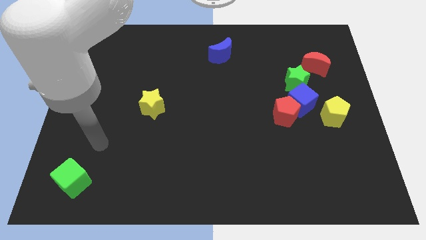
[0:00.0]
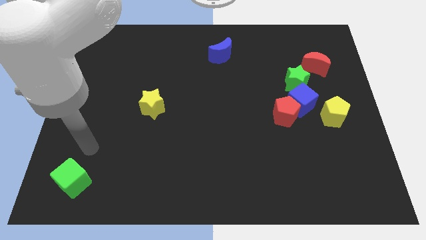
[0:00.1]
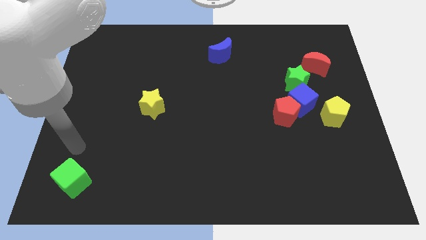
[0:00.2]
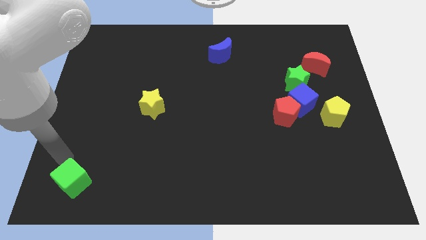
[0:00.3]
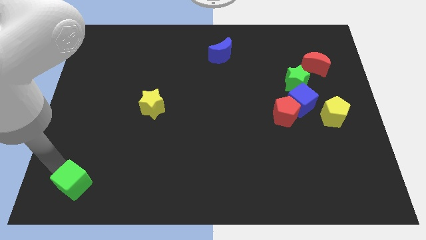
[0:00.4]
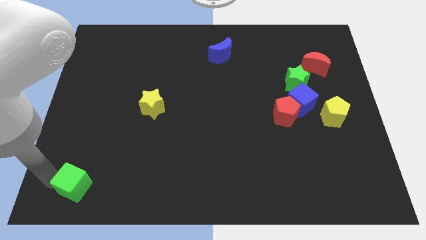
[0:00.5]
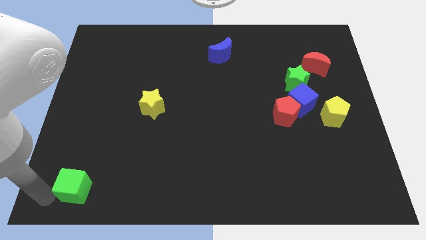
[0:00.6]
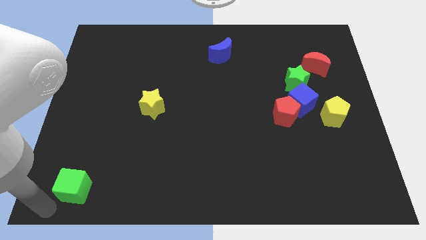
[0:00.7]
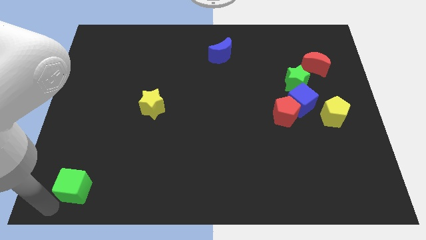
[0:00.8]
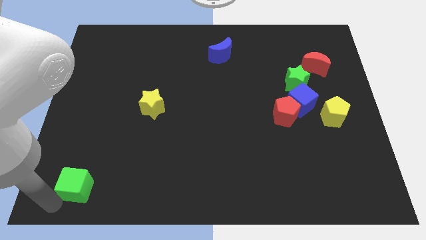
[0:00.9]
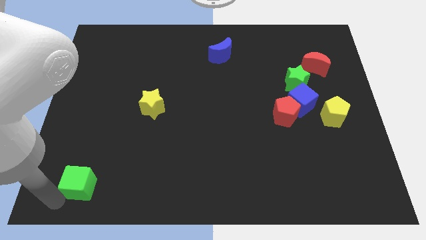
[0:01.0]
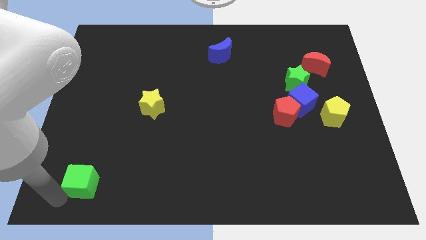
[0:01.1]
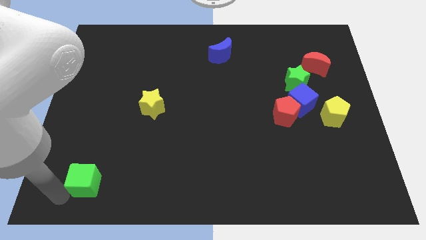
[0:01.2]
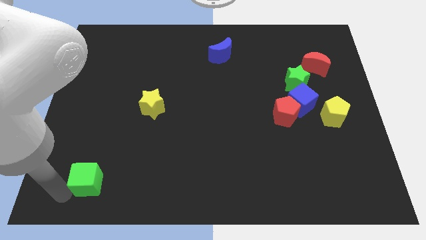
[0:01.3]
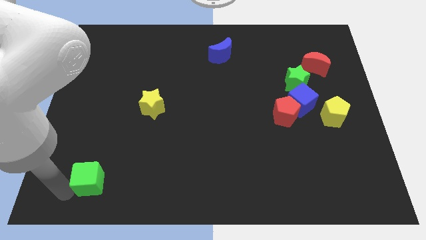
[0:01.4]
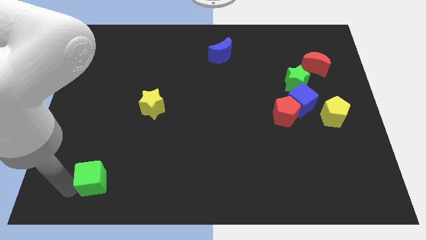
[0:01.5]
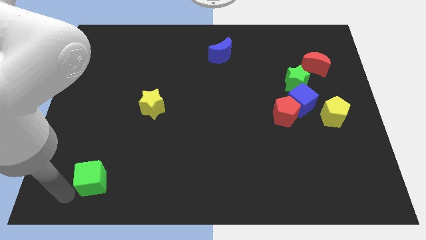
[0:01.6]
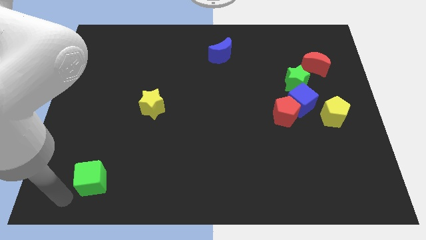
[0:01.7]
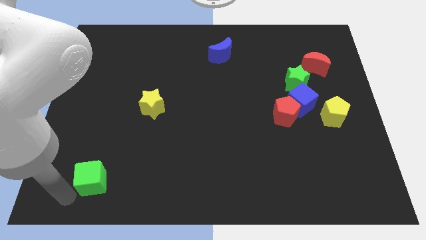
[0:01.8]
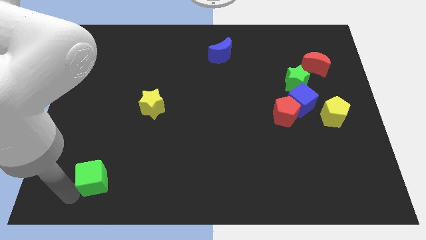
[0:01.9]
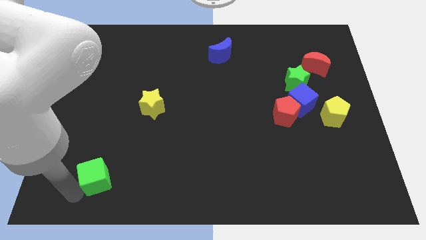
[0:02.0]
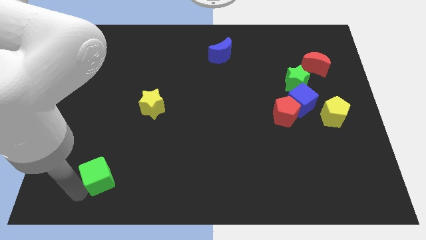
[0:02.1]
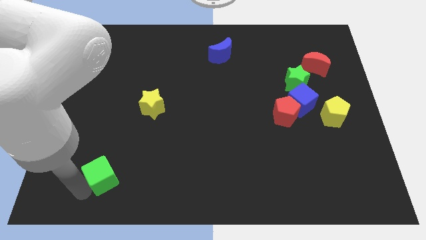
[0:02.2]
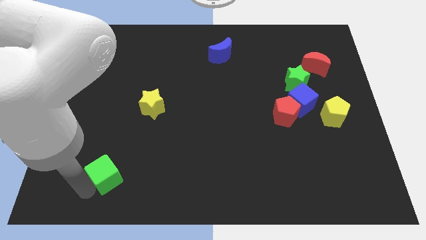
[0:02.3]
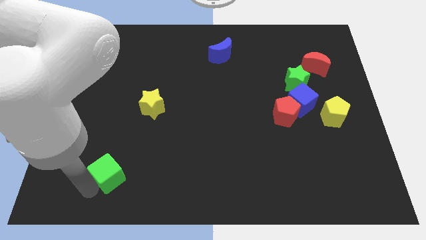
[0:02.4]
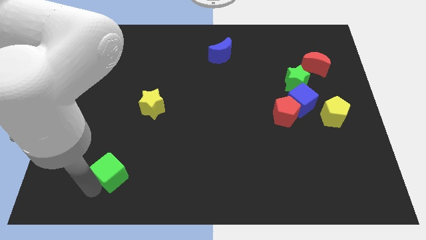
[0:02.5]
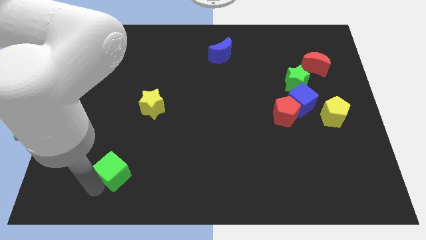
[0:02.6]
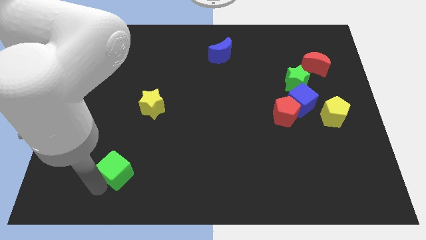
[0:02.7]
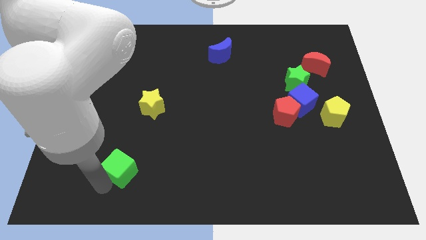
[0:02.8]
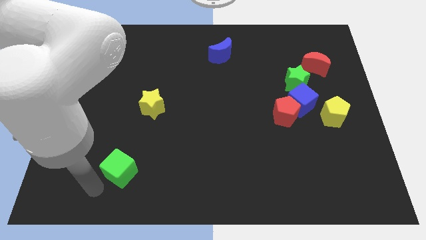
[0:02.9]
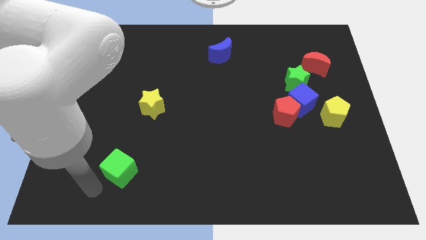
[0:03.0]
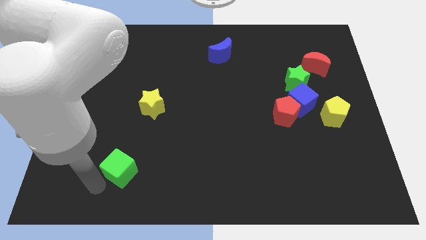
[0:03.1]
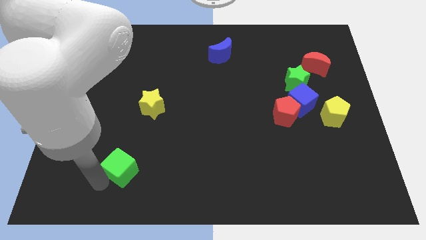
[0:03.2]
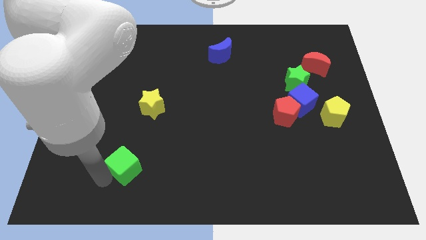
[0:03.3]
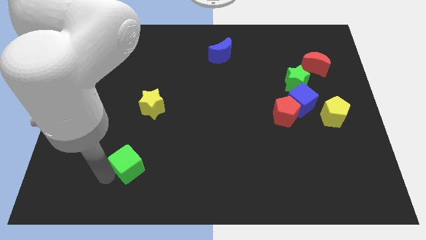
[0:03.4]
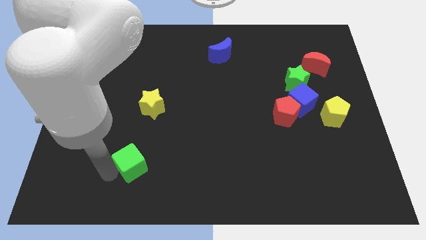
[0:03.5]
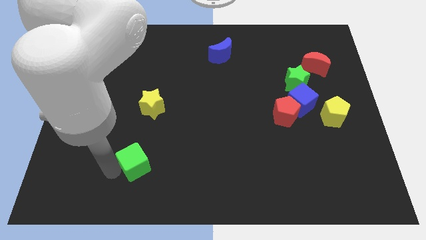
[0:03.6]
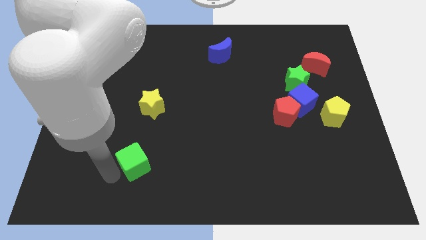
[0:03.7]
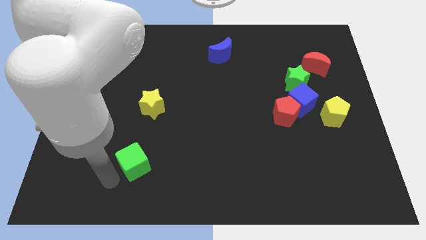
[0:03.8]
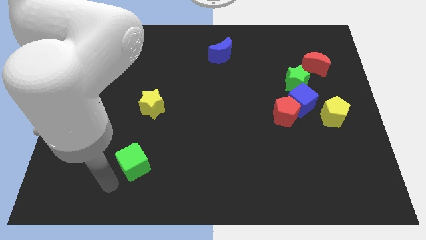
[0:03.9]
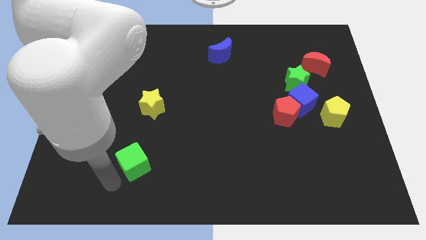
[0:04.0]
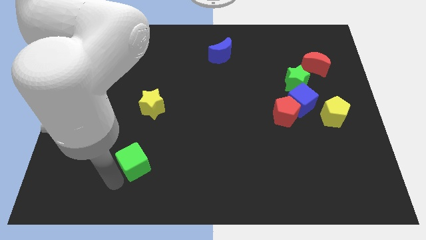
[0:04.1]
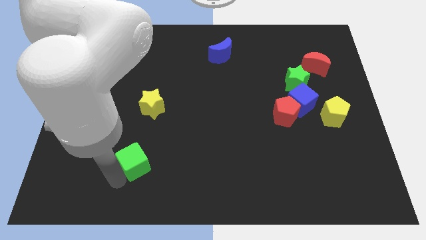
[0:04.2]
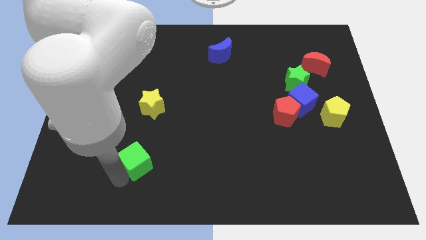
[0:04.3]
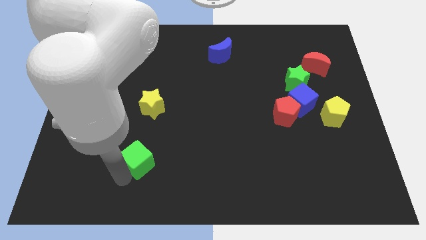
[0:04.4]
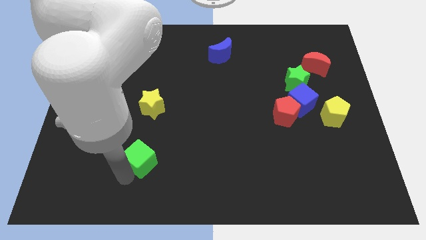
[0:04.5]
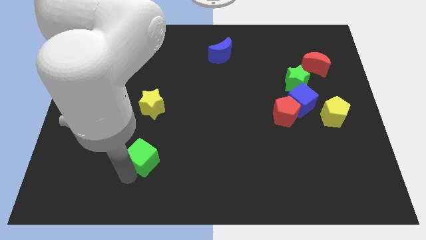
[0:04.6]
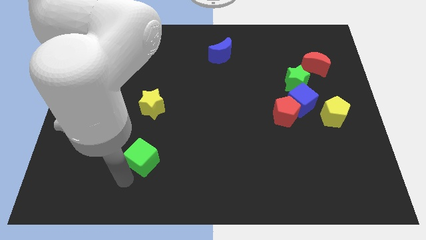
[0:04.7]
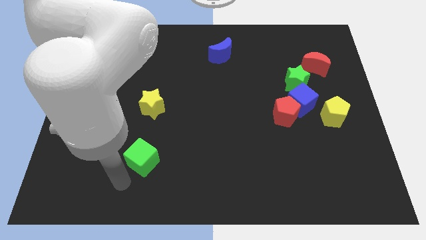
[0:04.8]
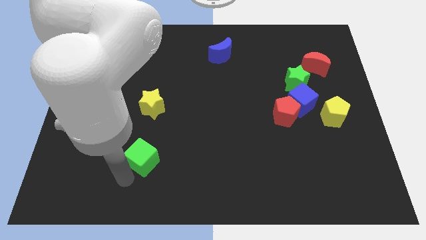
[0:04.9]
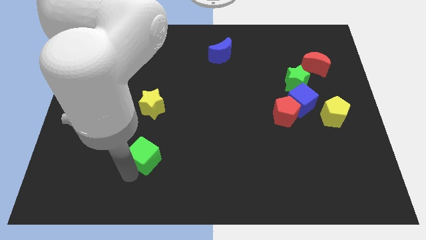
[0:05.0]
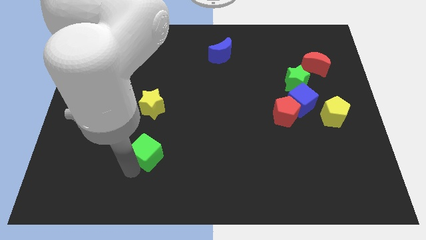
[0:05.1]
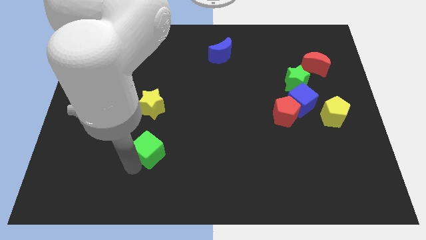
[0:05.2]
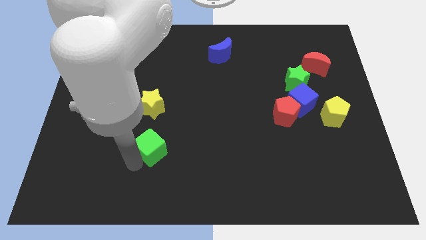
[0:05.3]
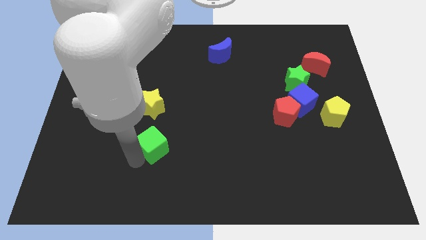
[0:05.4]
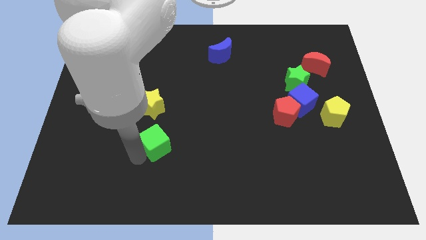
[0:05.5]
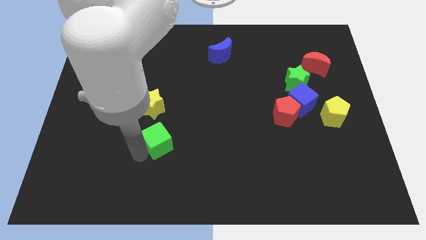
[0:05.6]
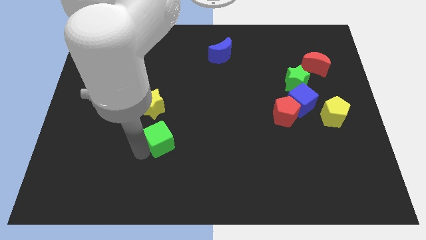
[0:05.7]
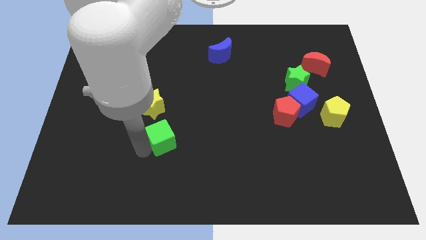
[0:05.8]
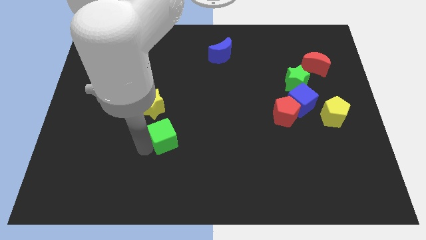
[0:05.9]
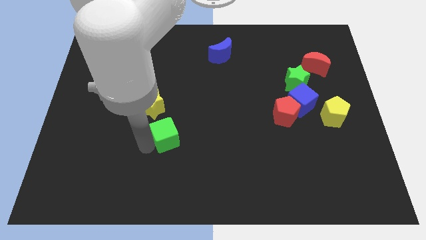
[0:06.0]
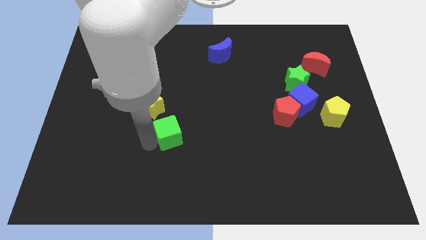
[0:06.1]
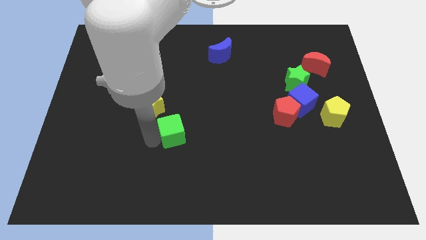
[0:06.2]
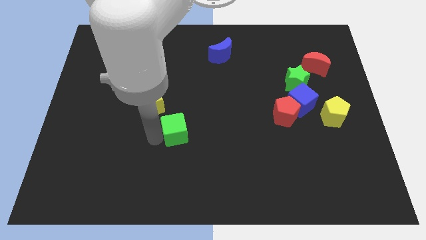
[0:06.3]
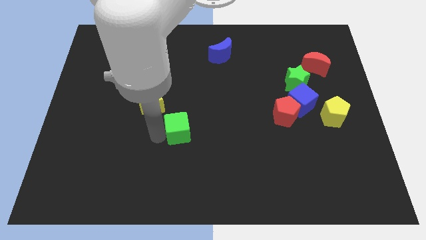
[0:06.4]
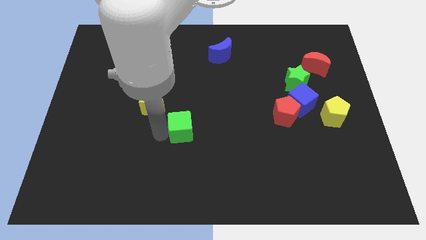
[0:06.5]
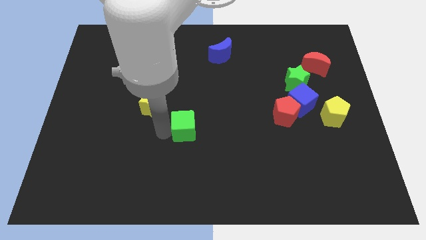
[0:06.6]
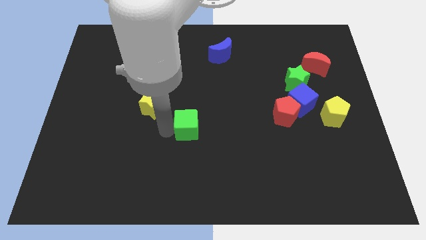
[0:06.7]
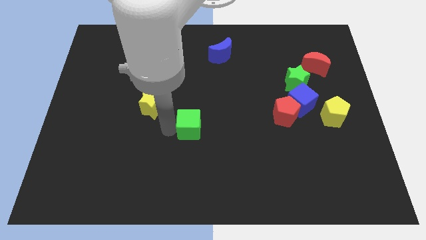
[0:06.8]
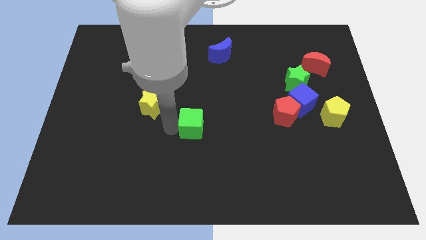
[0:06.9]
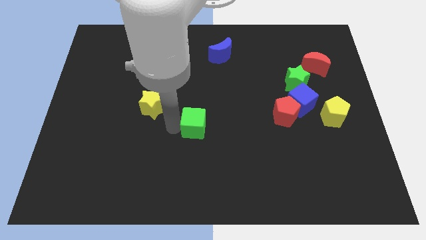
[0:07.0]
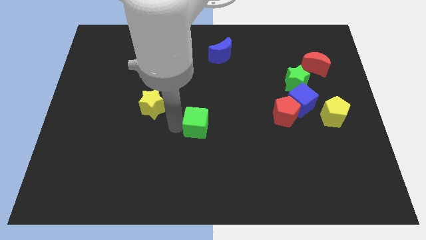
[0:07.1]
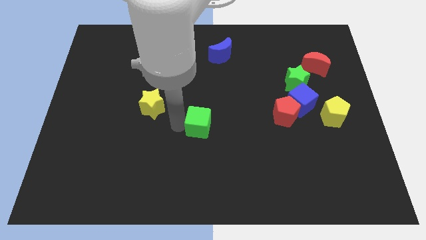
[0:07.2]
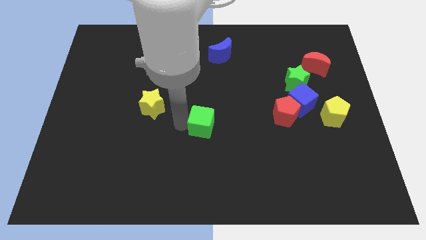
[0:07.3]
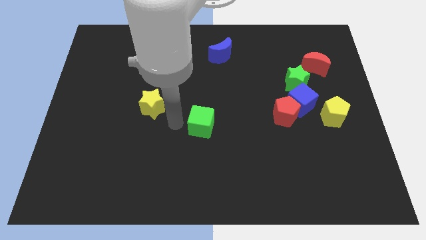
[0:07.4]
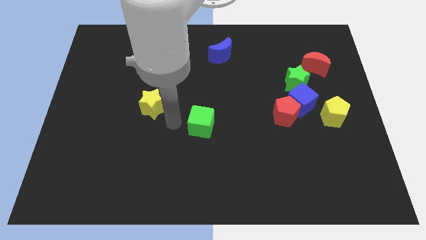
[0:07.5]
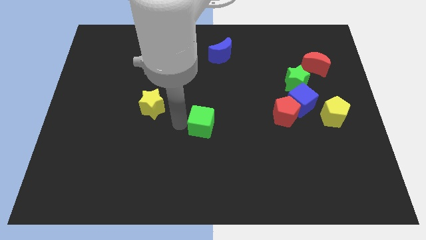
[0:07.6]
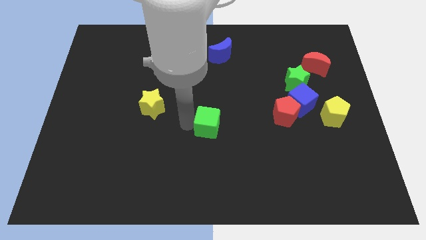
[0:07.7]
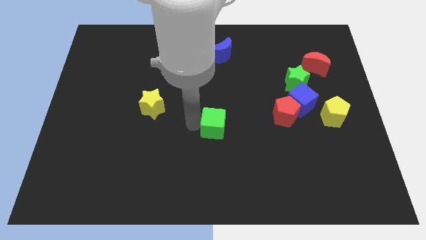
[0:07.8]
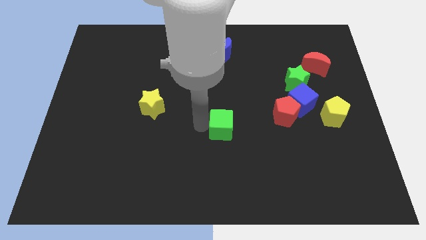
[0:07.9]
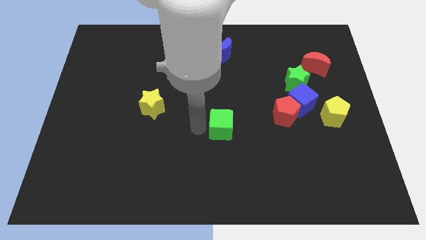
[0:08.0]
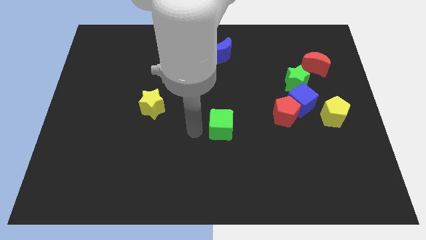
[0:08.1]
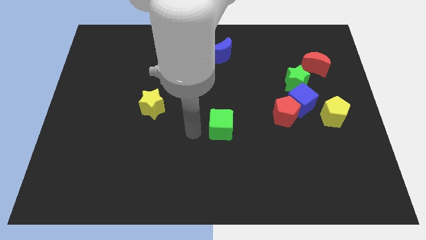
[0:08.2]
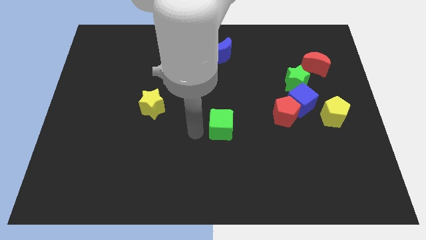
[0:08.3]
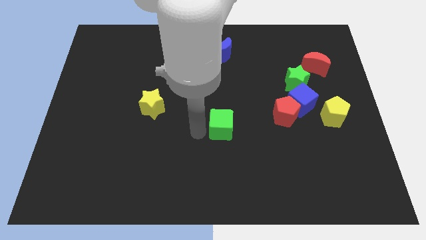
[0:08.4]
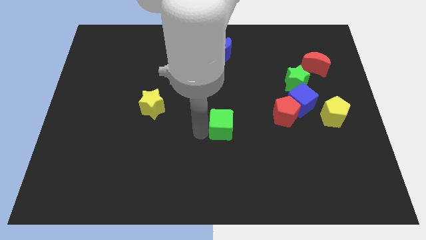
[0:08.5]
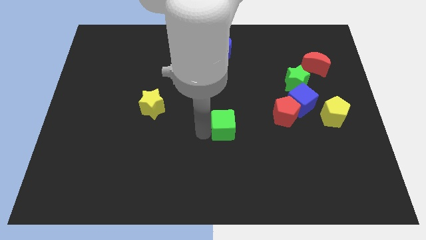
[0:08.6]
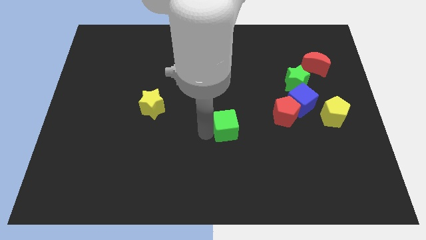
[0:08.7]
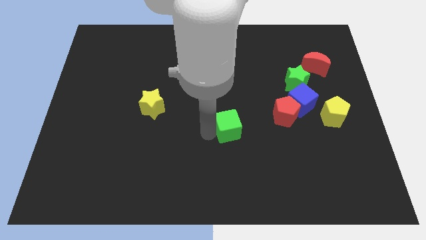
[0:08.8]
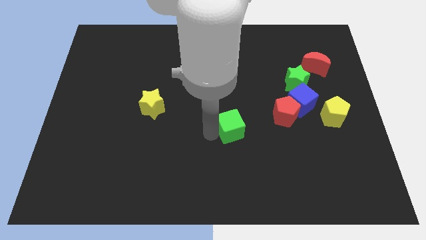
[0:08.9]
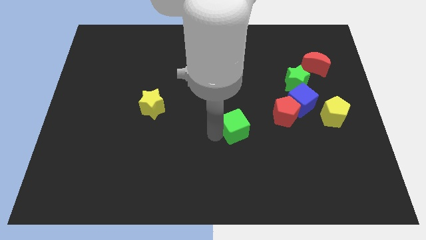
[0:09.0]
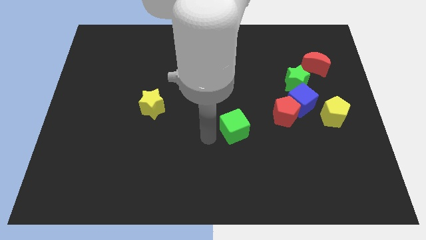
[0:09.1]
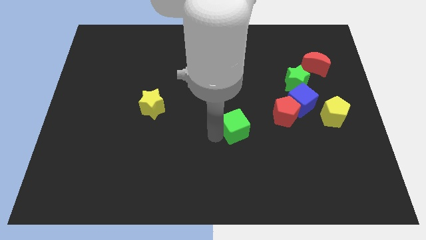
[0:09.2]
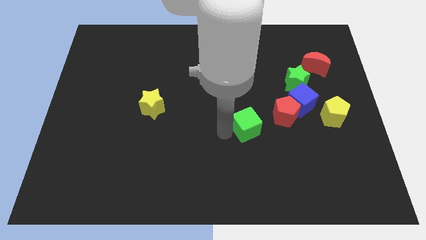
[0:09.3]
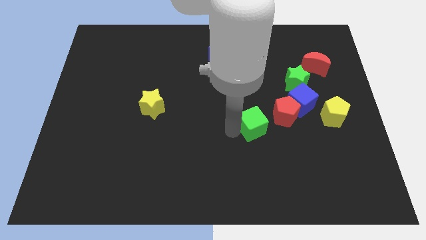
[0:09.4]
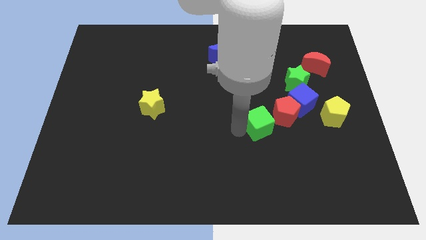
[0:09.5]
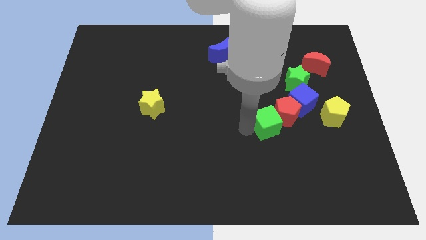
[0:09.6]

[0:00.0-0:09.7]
move the green cube close to the red pentagon
